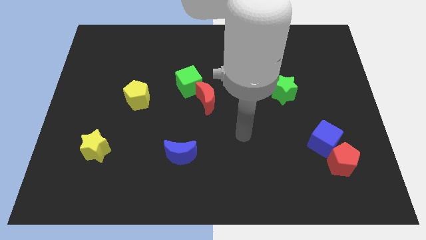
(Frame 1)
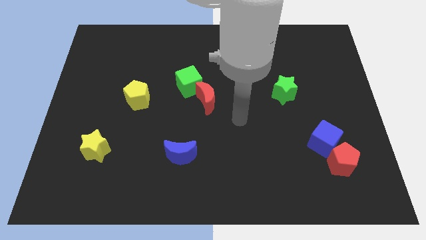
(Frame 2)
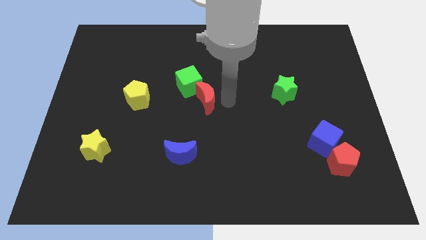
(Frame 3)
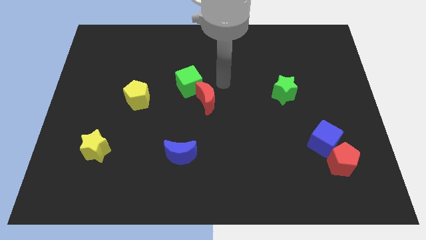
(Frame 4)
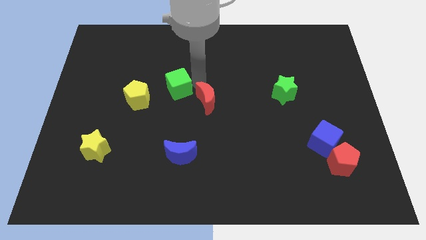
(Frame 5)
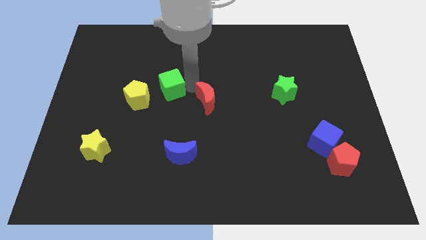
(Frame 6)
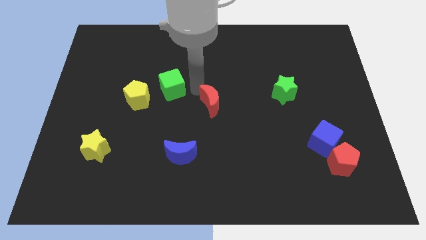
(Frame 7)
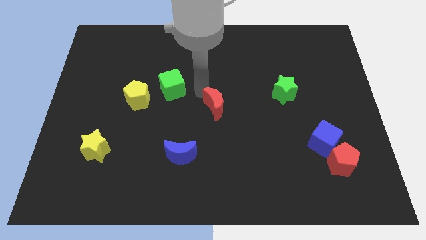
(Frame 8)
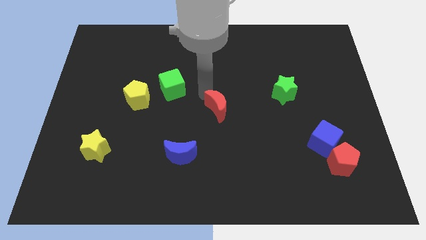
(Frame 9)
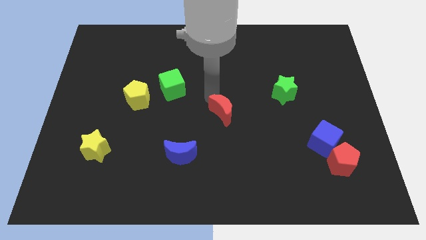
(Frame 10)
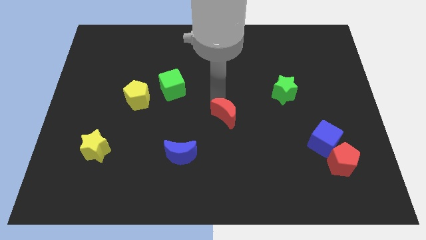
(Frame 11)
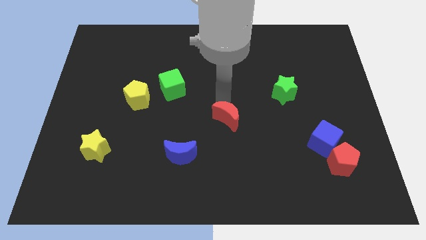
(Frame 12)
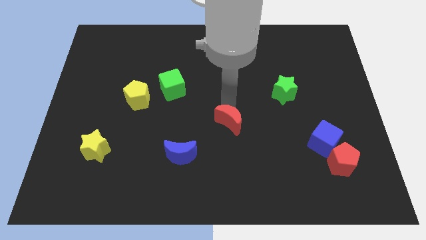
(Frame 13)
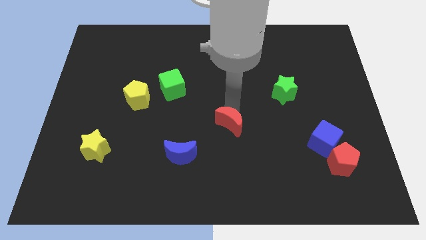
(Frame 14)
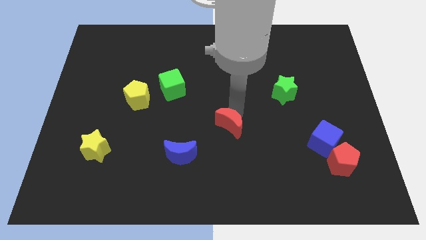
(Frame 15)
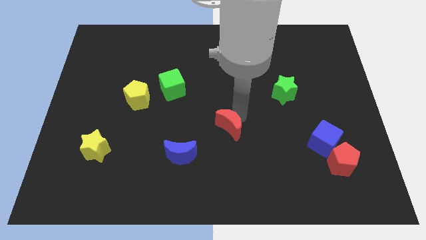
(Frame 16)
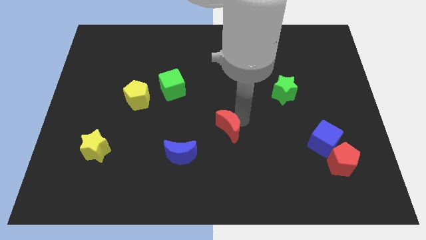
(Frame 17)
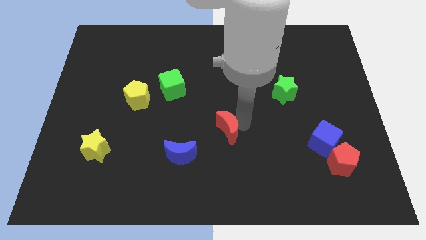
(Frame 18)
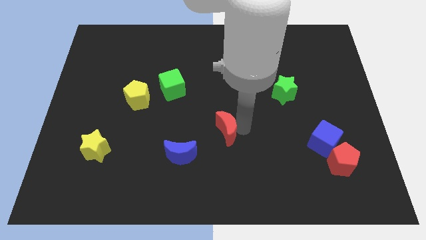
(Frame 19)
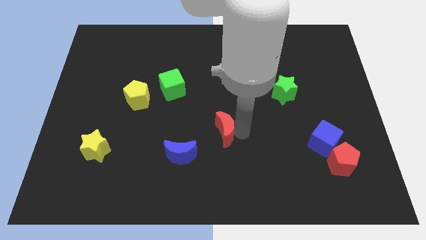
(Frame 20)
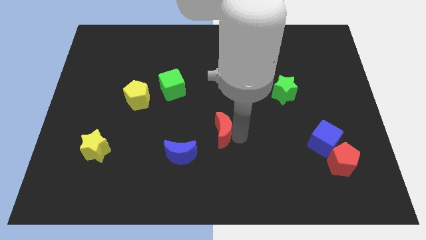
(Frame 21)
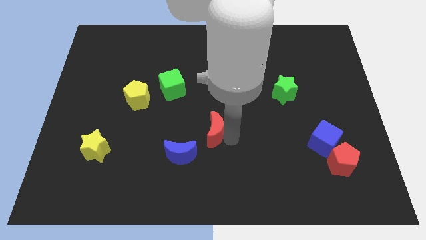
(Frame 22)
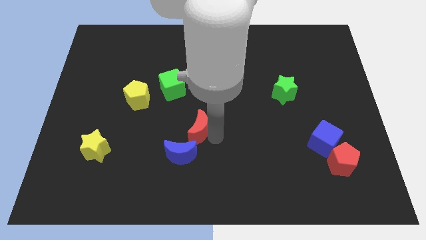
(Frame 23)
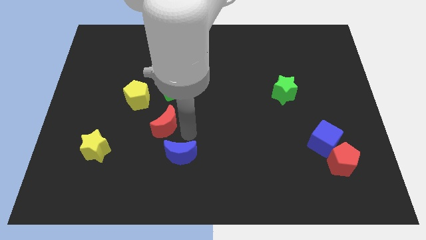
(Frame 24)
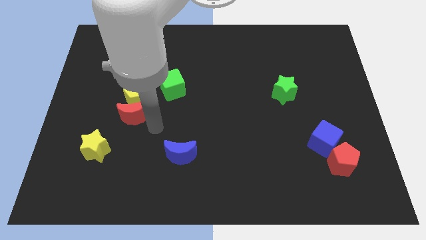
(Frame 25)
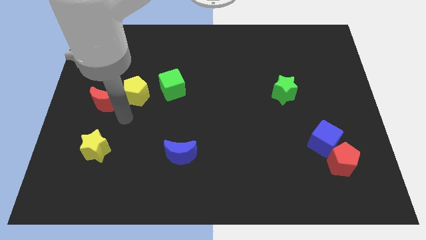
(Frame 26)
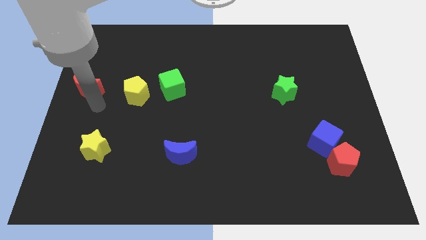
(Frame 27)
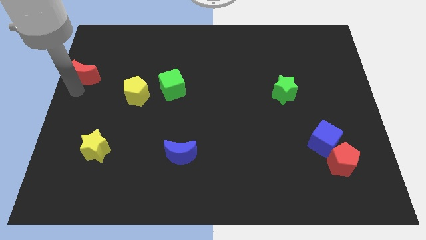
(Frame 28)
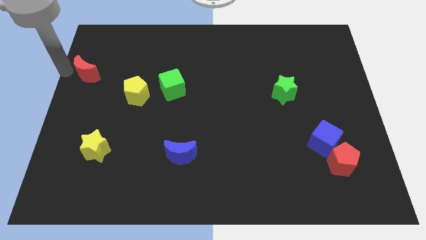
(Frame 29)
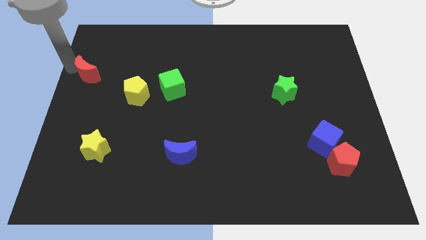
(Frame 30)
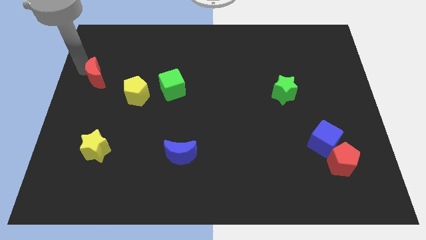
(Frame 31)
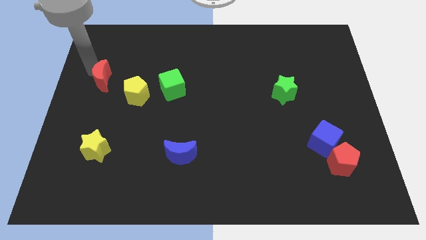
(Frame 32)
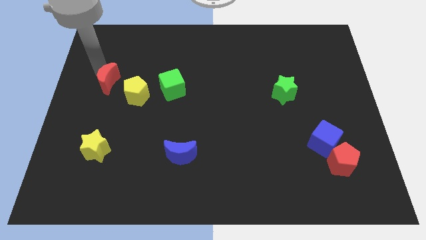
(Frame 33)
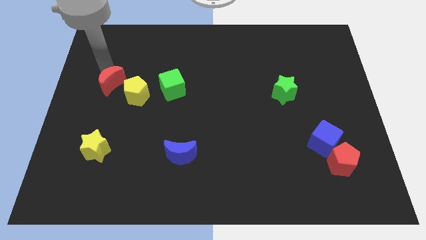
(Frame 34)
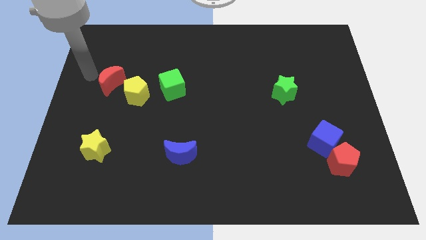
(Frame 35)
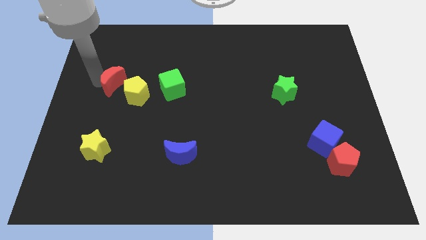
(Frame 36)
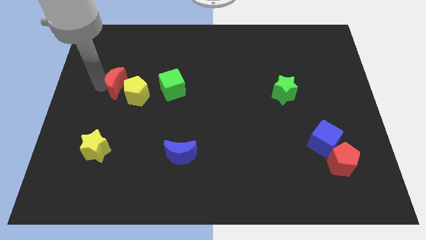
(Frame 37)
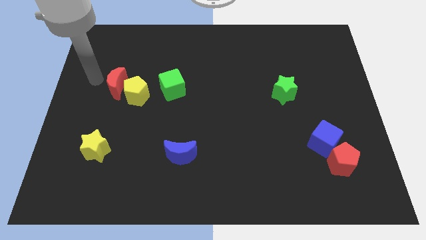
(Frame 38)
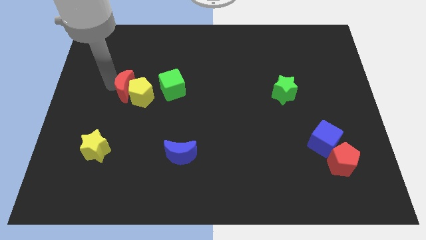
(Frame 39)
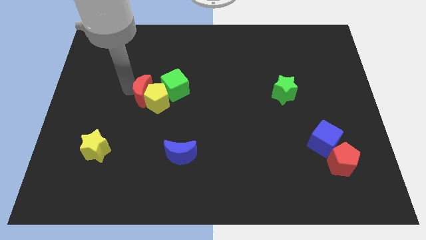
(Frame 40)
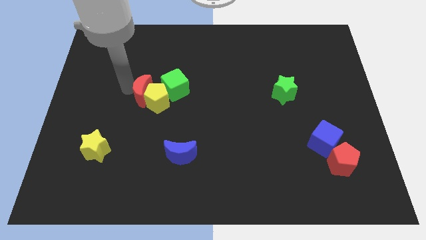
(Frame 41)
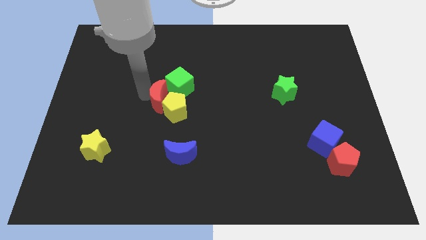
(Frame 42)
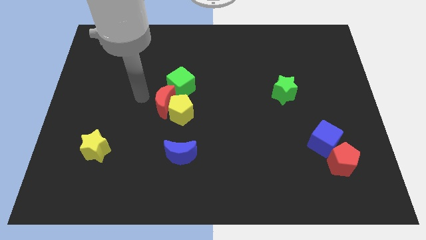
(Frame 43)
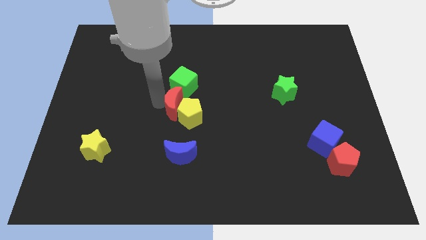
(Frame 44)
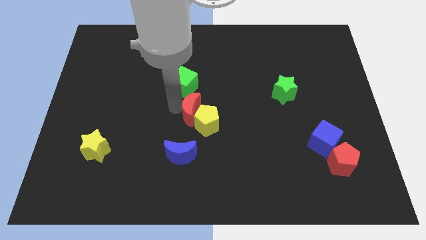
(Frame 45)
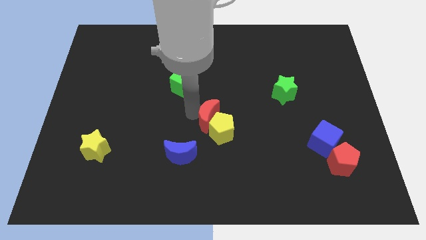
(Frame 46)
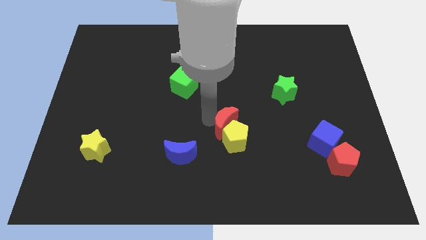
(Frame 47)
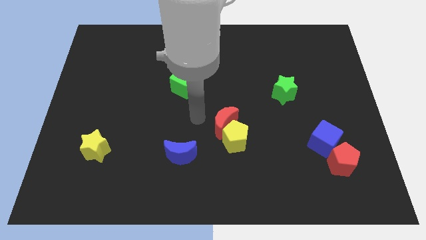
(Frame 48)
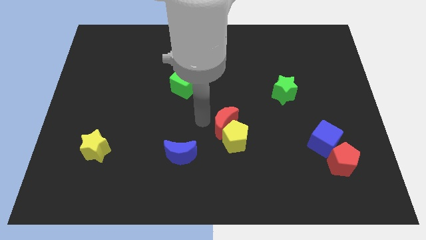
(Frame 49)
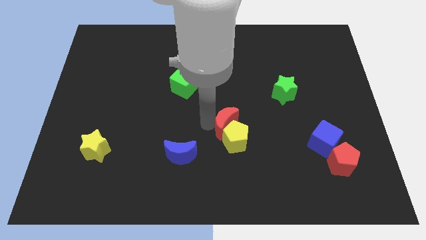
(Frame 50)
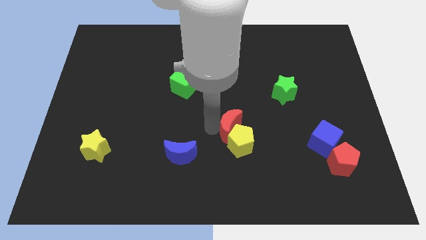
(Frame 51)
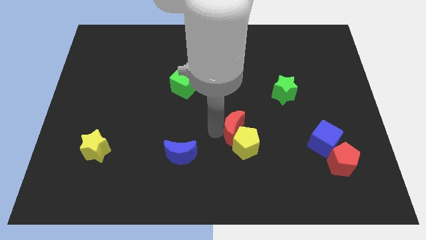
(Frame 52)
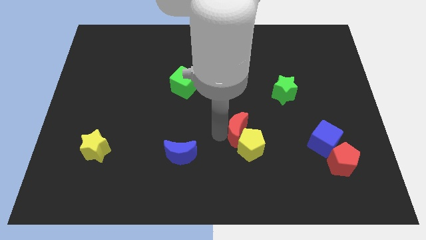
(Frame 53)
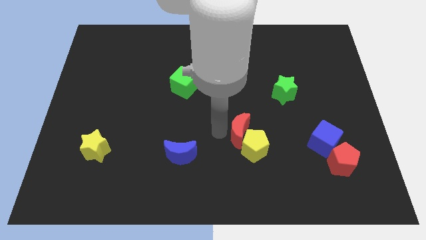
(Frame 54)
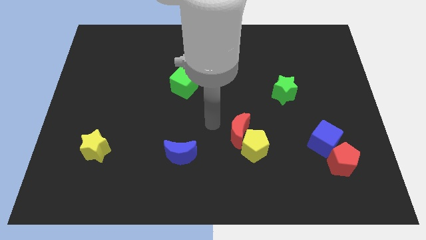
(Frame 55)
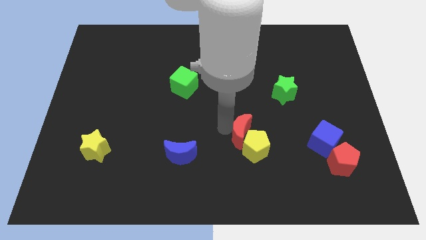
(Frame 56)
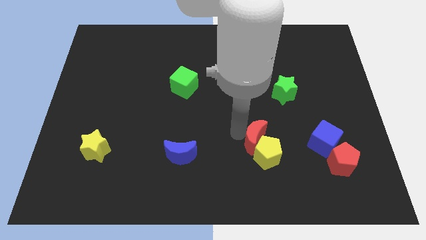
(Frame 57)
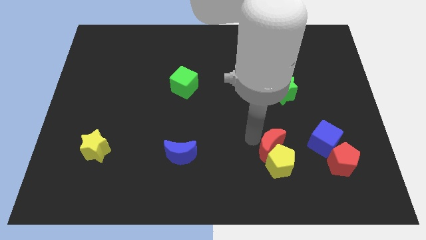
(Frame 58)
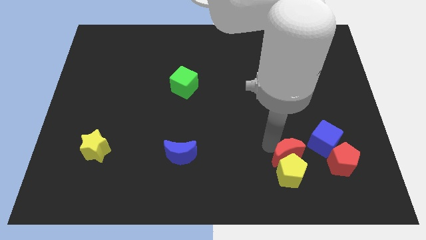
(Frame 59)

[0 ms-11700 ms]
put the red moon to the bottom left side of the blue cube

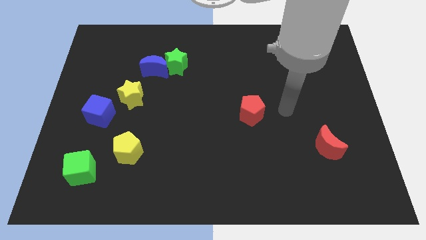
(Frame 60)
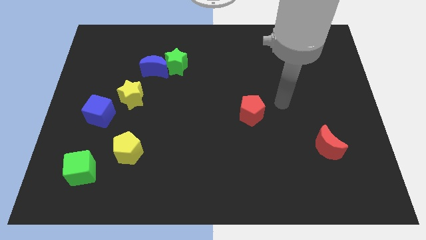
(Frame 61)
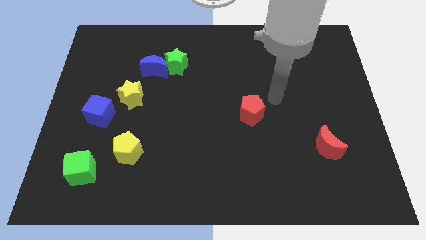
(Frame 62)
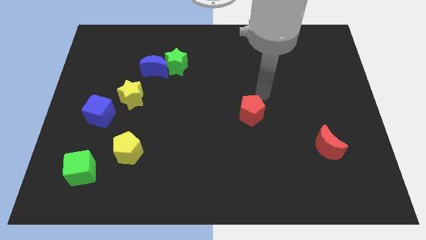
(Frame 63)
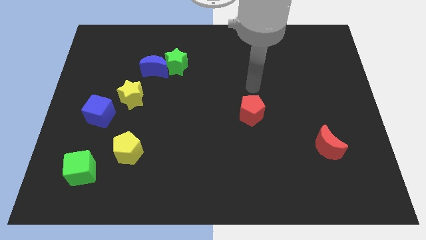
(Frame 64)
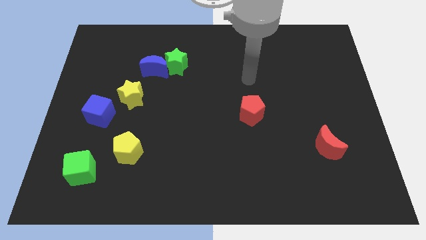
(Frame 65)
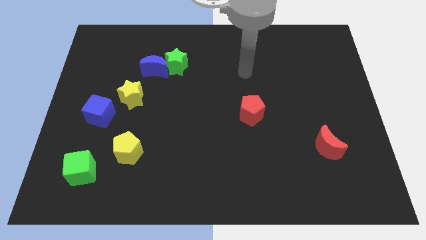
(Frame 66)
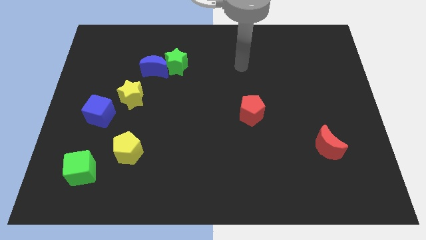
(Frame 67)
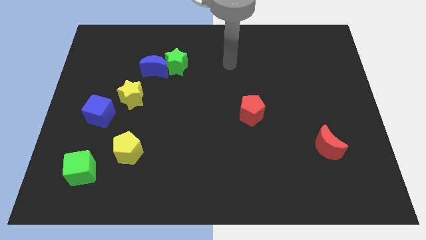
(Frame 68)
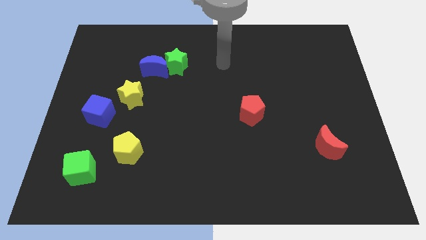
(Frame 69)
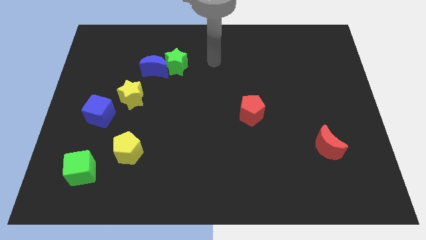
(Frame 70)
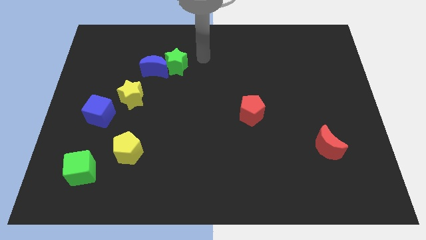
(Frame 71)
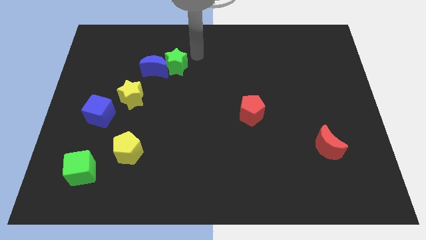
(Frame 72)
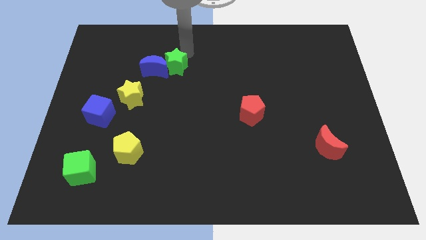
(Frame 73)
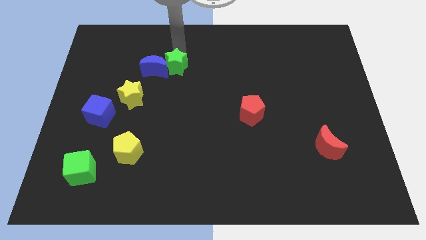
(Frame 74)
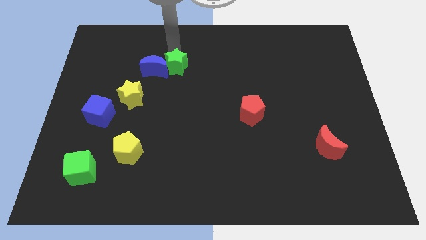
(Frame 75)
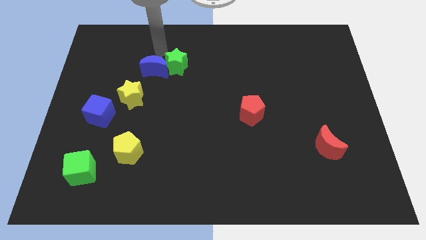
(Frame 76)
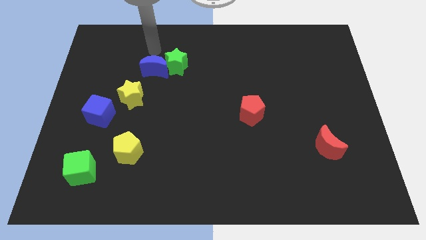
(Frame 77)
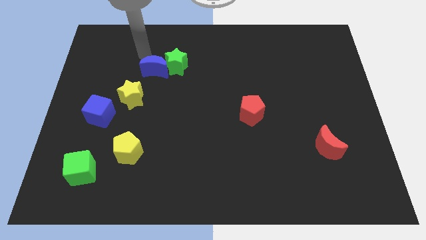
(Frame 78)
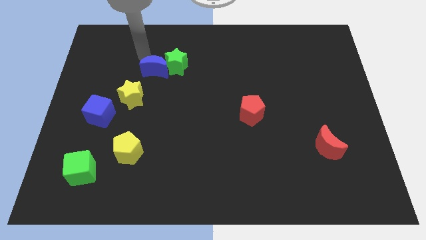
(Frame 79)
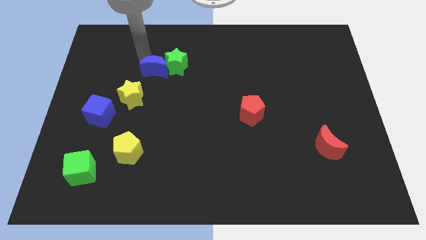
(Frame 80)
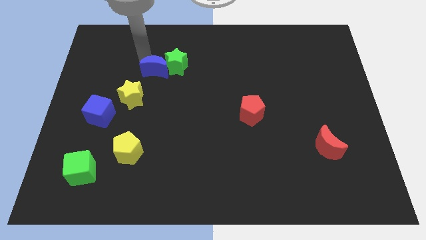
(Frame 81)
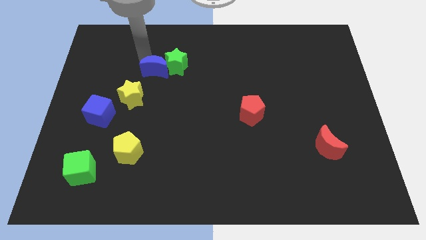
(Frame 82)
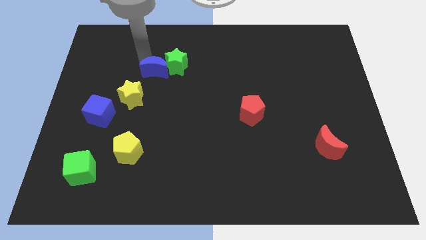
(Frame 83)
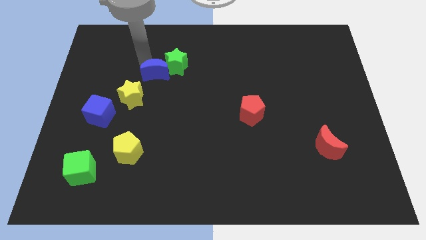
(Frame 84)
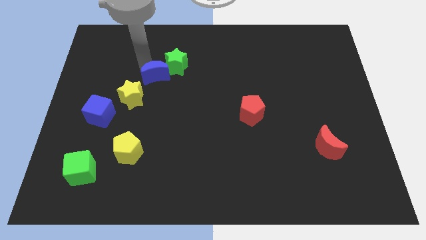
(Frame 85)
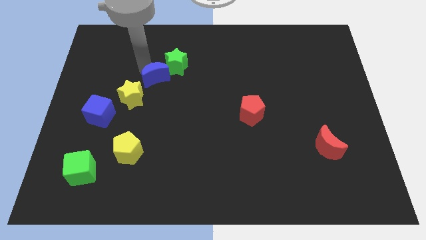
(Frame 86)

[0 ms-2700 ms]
move the blue moon to the bottom side of the green star
